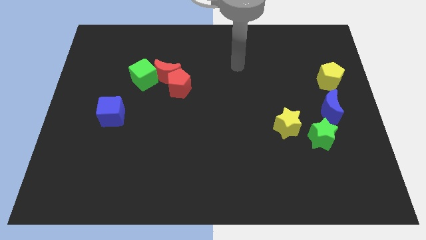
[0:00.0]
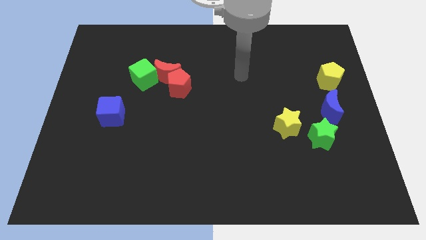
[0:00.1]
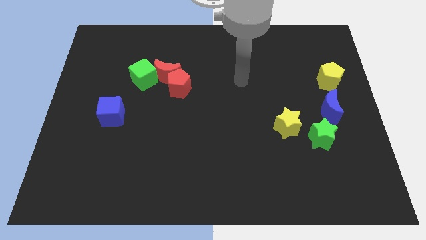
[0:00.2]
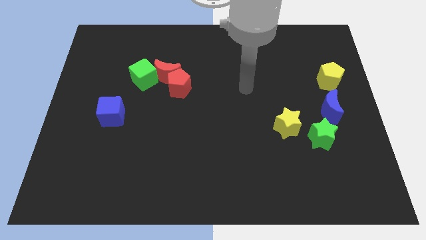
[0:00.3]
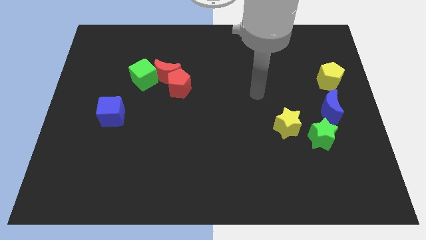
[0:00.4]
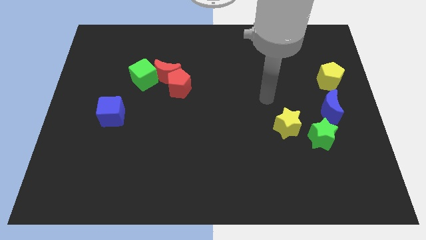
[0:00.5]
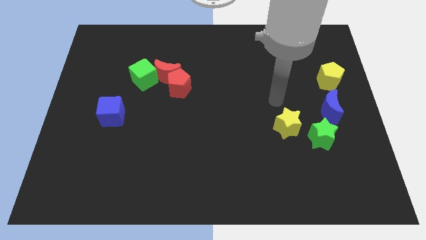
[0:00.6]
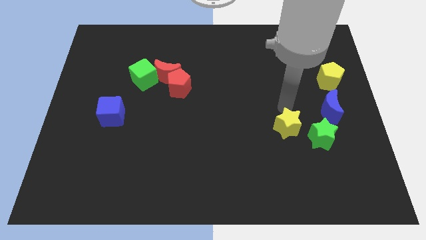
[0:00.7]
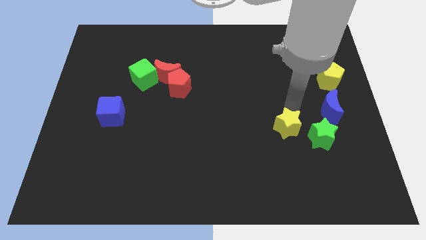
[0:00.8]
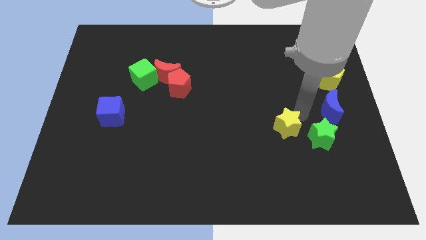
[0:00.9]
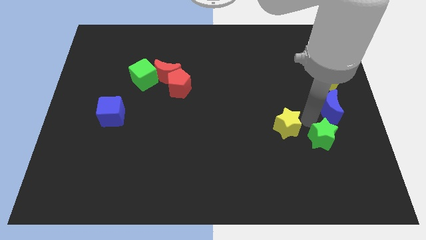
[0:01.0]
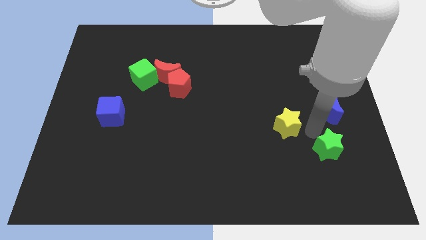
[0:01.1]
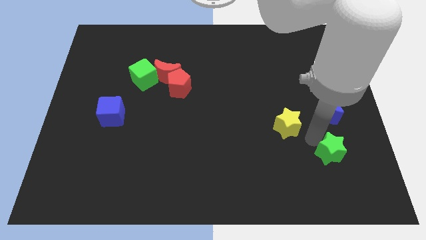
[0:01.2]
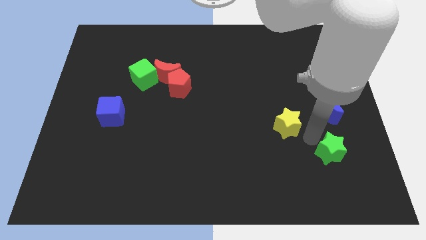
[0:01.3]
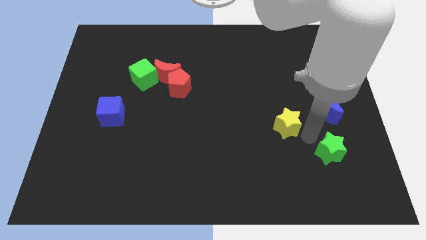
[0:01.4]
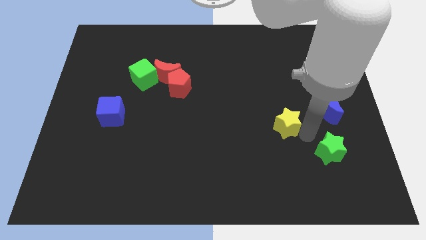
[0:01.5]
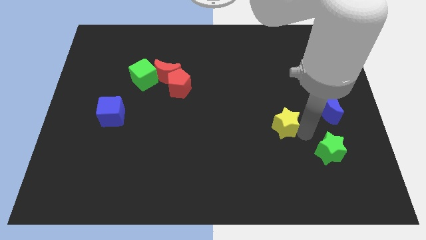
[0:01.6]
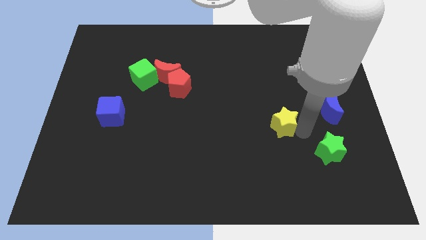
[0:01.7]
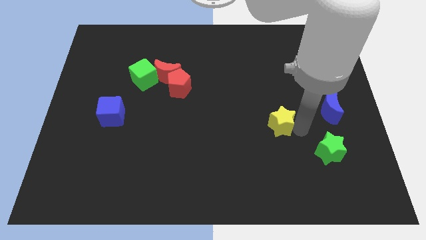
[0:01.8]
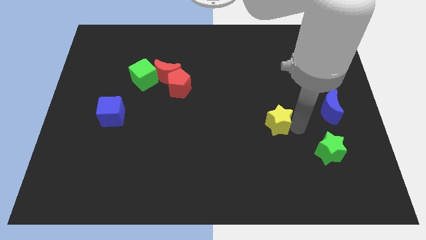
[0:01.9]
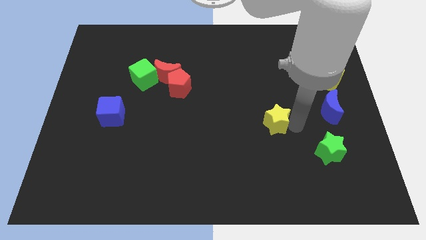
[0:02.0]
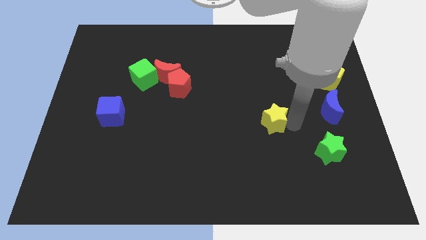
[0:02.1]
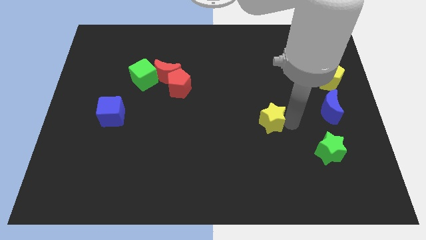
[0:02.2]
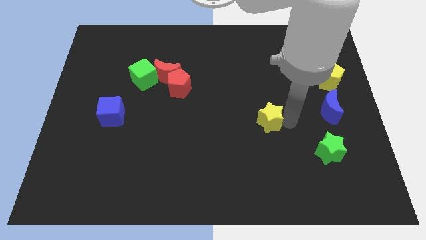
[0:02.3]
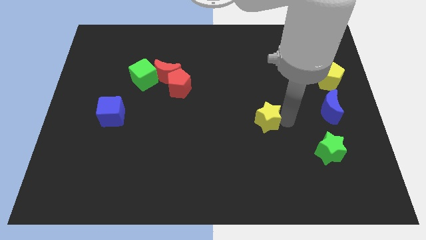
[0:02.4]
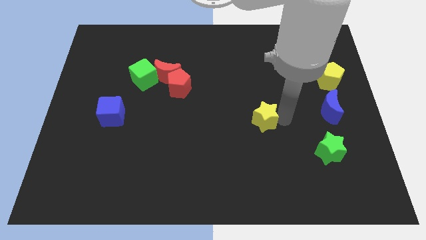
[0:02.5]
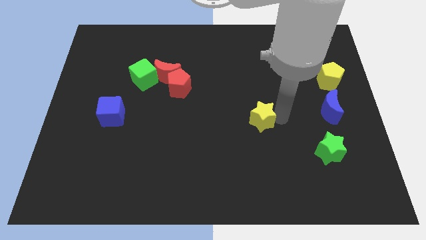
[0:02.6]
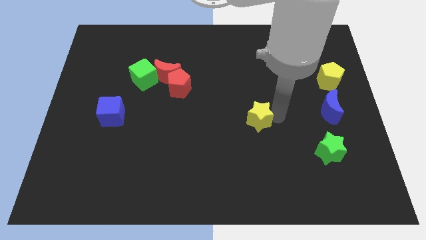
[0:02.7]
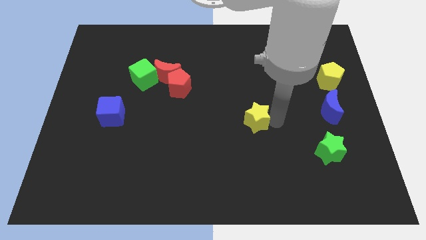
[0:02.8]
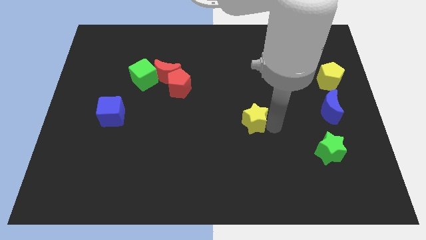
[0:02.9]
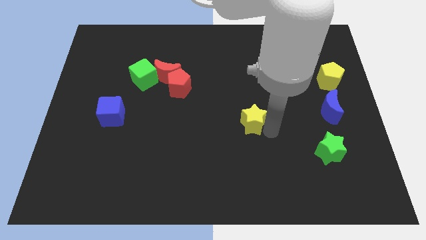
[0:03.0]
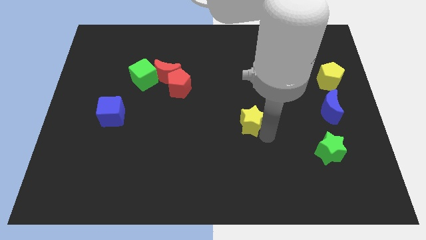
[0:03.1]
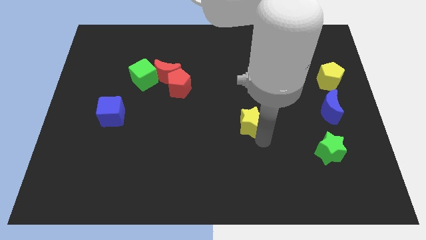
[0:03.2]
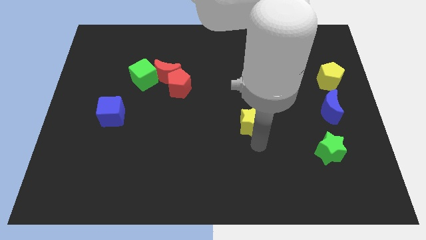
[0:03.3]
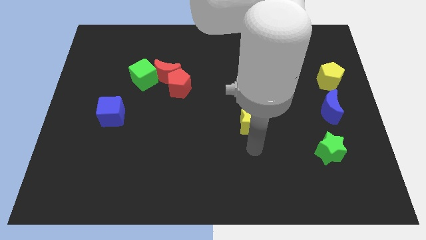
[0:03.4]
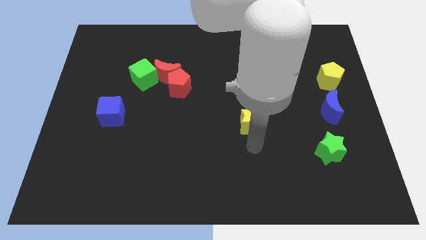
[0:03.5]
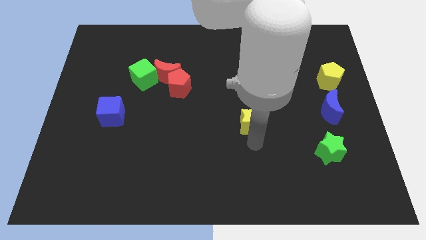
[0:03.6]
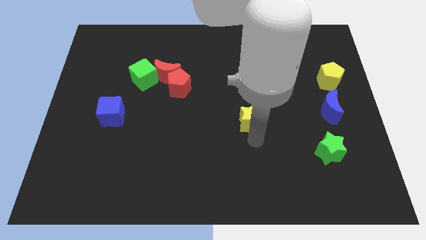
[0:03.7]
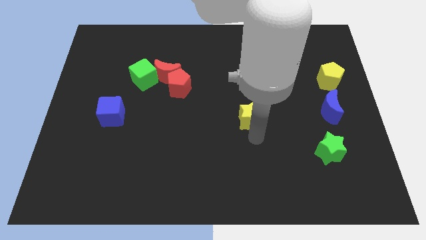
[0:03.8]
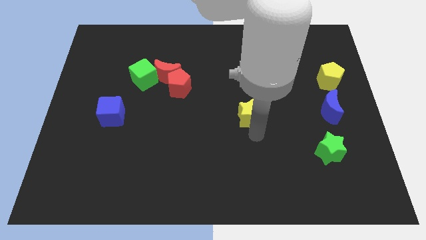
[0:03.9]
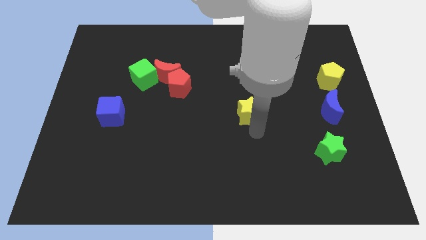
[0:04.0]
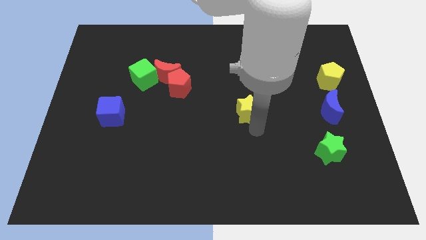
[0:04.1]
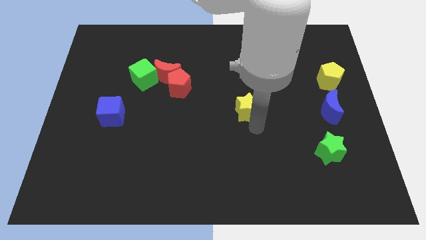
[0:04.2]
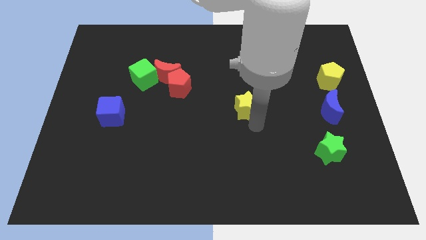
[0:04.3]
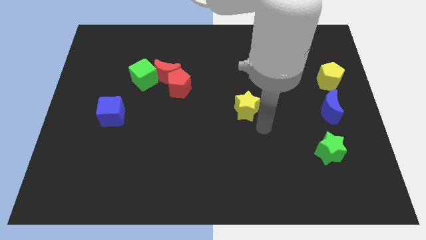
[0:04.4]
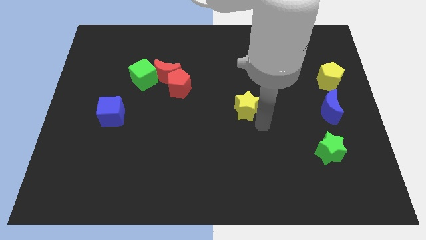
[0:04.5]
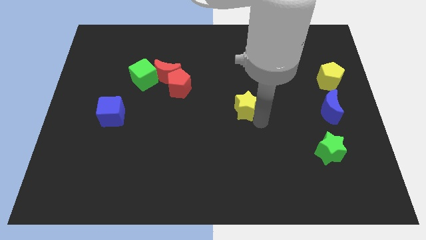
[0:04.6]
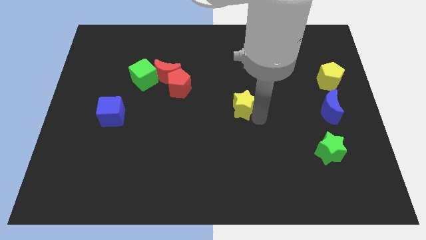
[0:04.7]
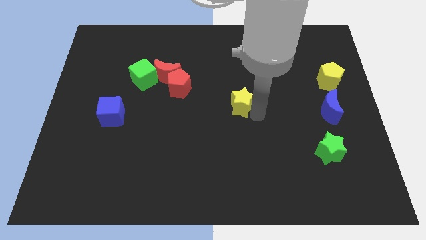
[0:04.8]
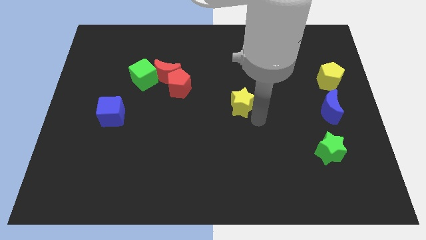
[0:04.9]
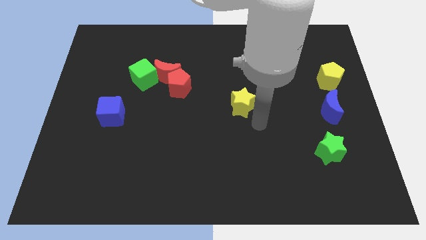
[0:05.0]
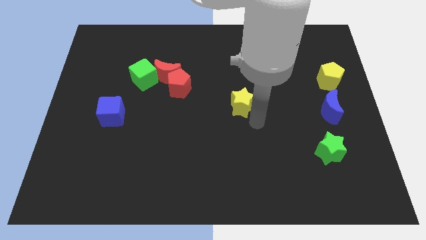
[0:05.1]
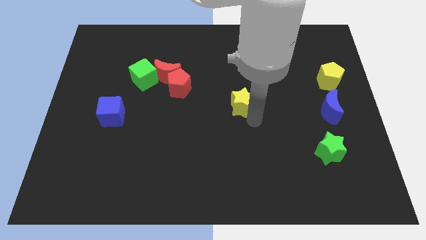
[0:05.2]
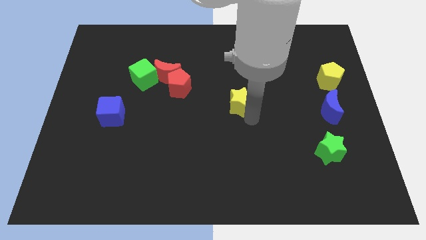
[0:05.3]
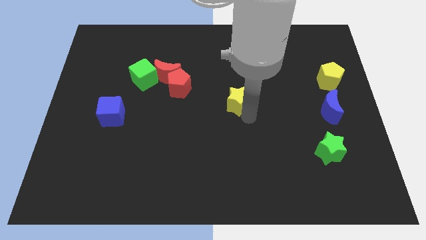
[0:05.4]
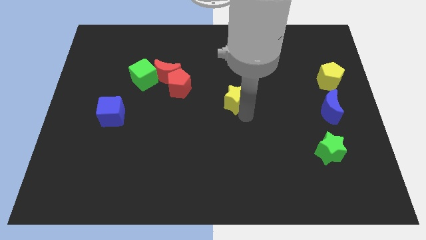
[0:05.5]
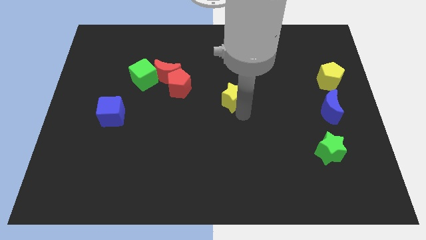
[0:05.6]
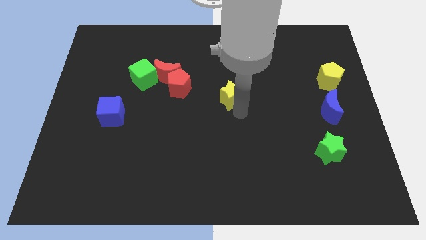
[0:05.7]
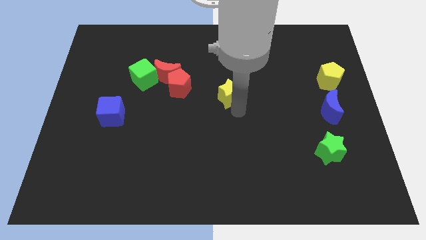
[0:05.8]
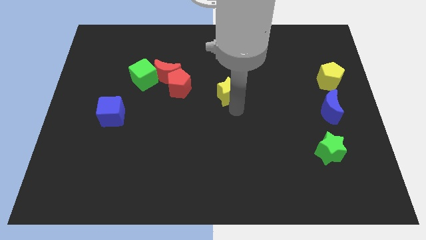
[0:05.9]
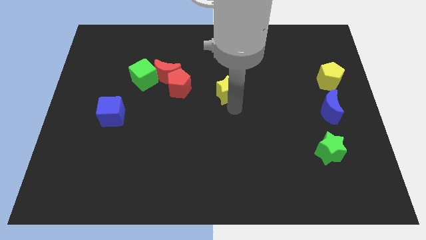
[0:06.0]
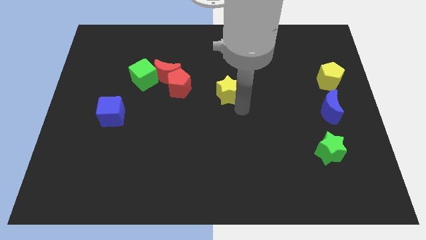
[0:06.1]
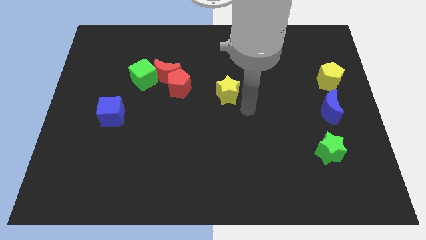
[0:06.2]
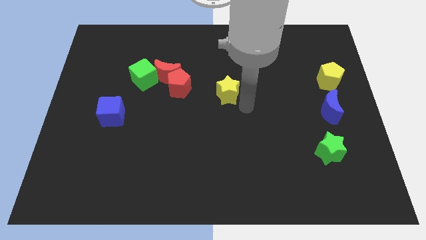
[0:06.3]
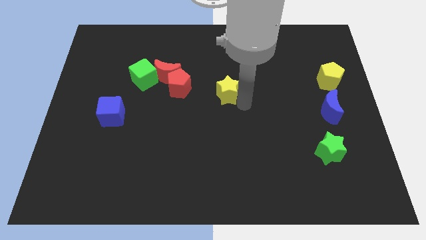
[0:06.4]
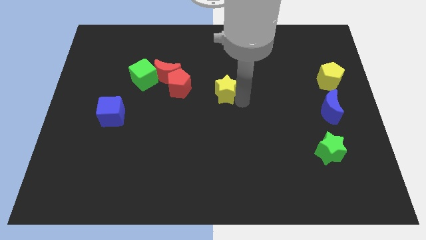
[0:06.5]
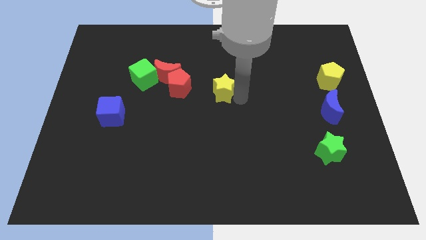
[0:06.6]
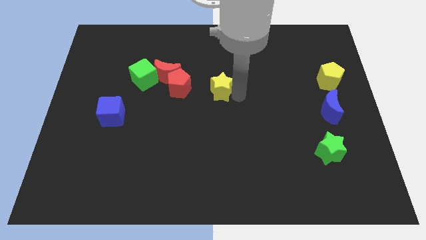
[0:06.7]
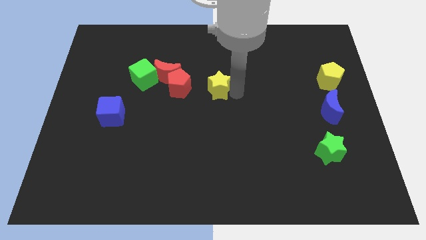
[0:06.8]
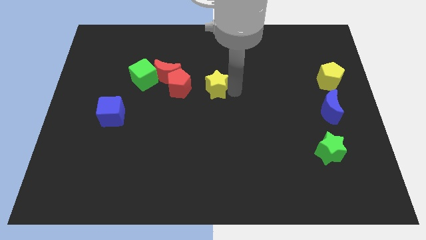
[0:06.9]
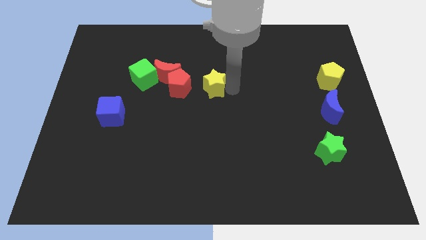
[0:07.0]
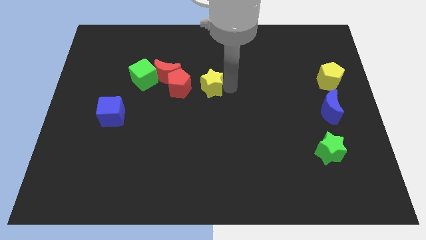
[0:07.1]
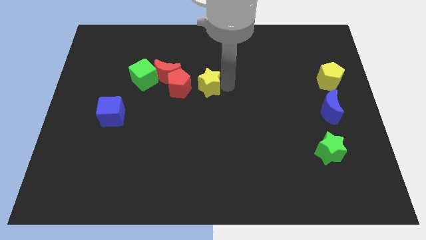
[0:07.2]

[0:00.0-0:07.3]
move the yellow star diagonally up and to the right of the red pentagon
